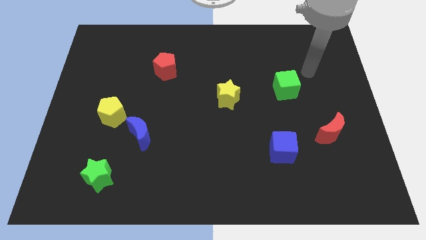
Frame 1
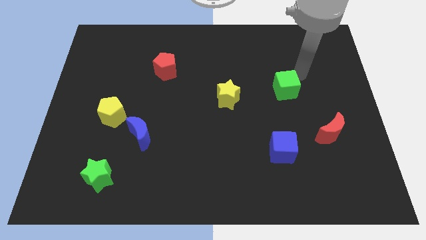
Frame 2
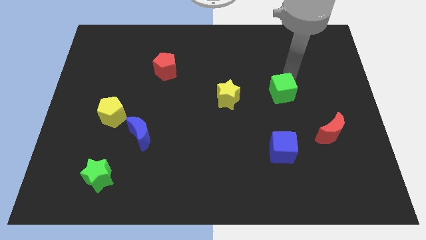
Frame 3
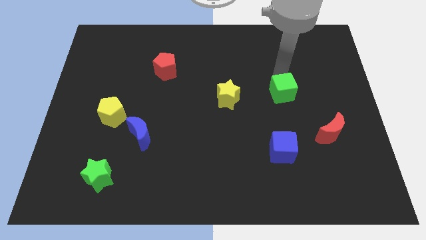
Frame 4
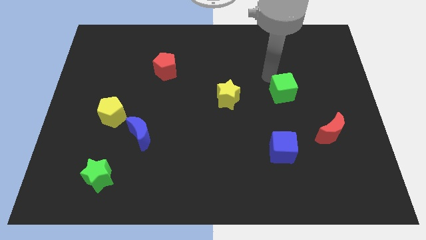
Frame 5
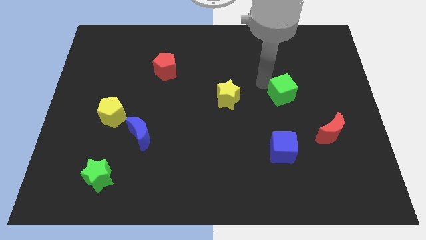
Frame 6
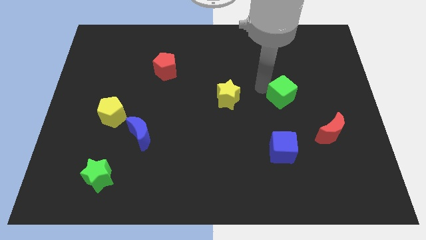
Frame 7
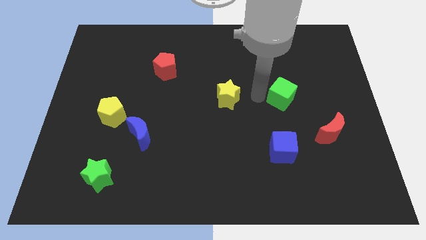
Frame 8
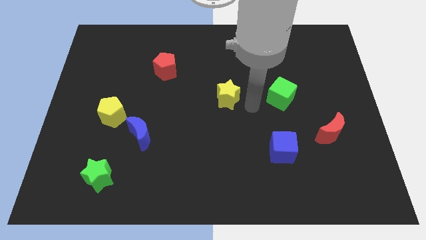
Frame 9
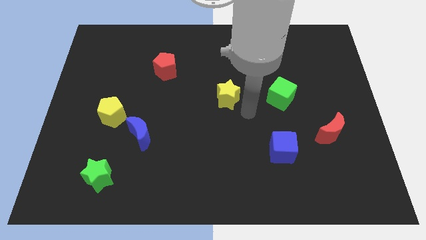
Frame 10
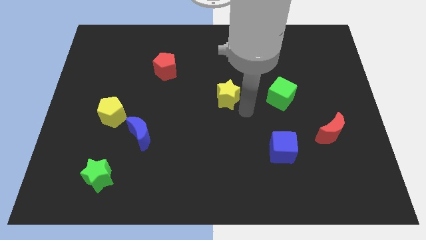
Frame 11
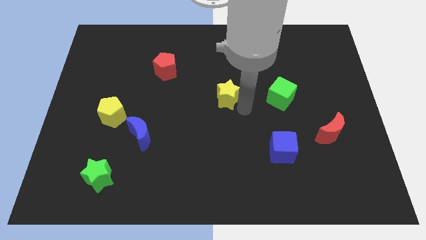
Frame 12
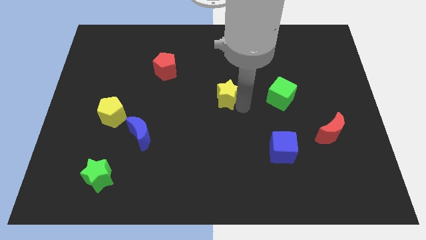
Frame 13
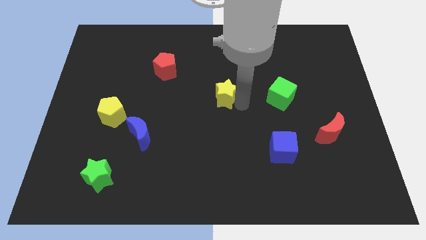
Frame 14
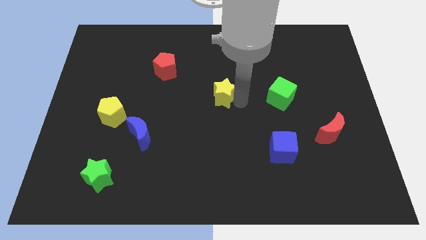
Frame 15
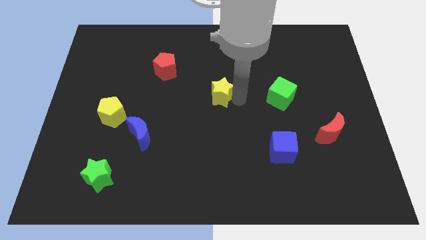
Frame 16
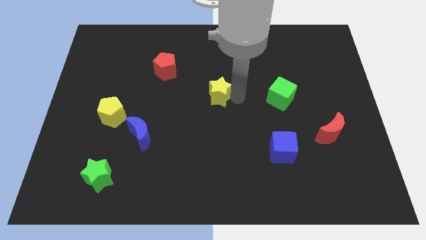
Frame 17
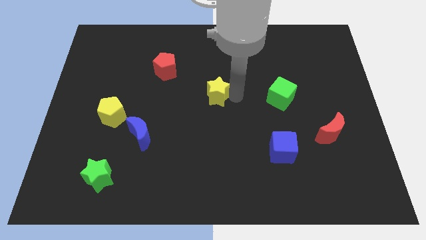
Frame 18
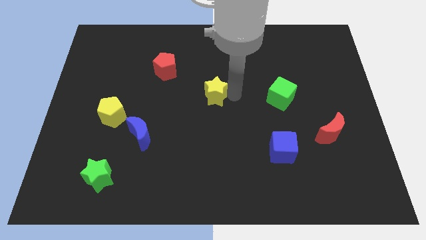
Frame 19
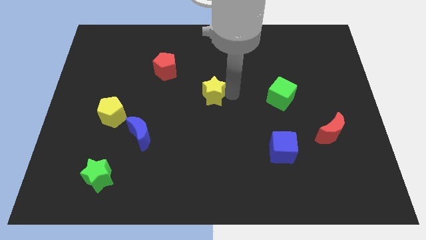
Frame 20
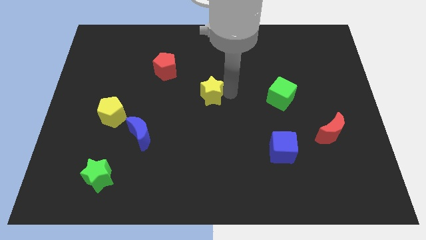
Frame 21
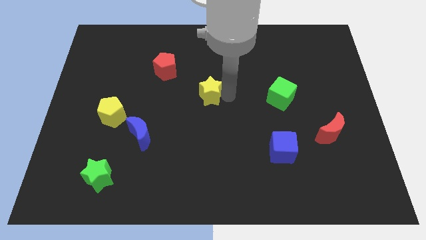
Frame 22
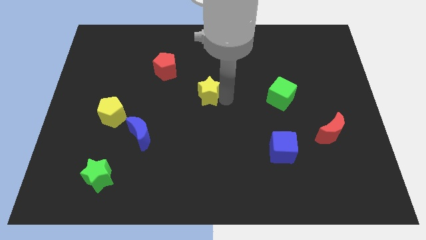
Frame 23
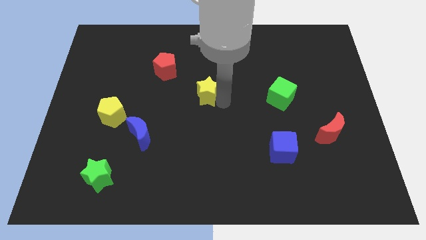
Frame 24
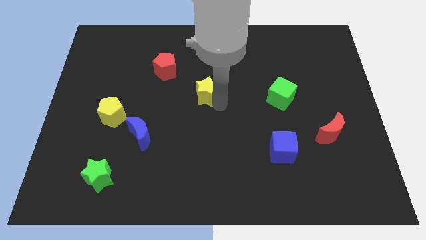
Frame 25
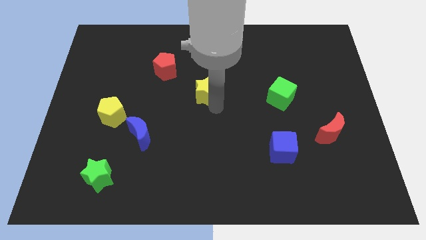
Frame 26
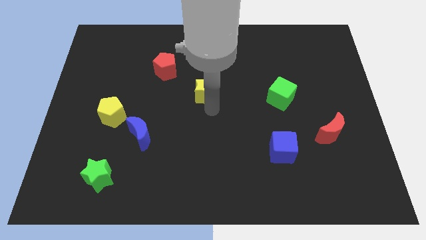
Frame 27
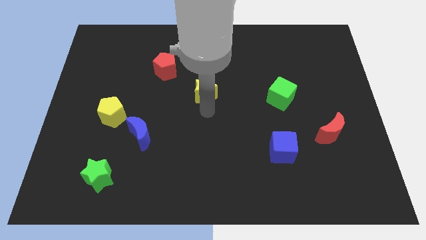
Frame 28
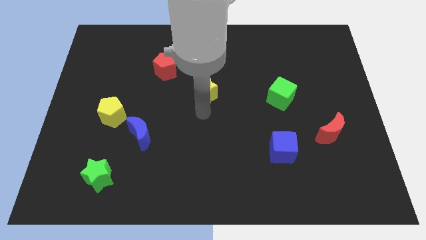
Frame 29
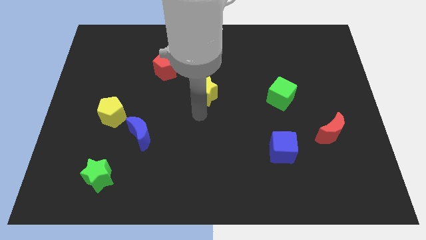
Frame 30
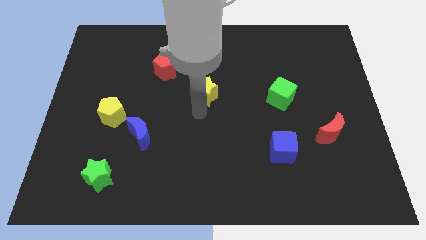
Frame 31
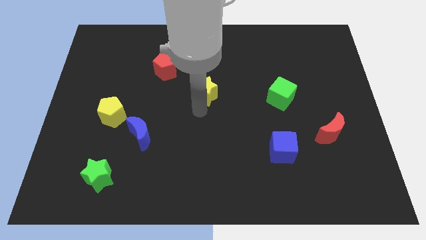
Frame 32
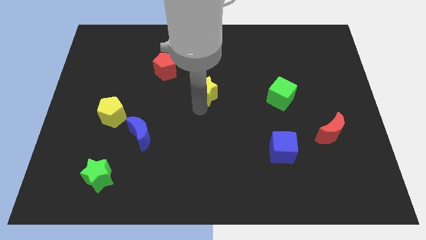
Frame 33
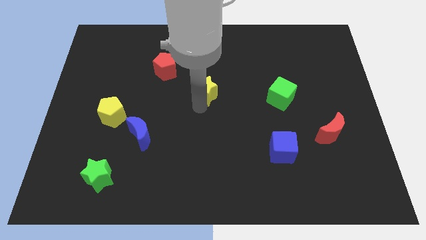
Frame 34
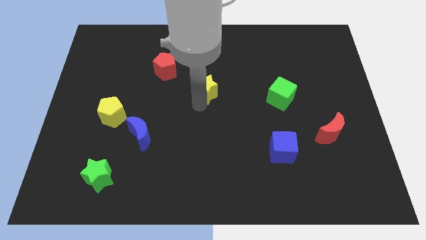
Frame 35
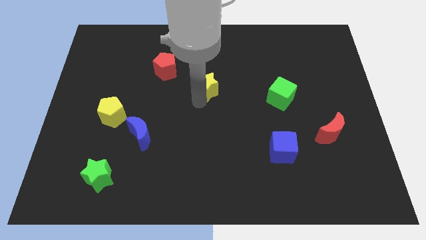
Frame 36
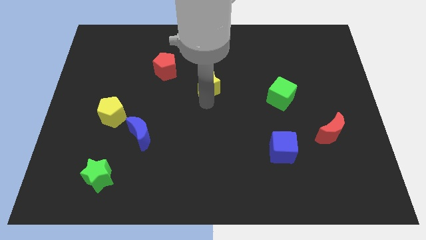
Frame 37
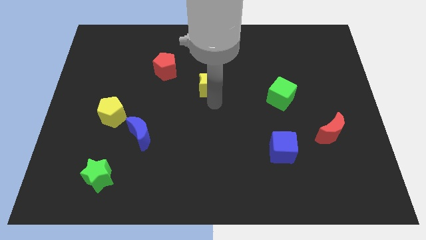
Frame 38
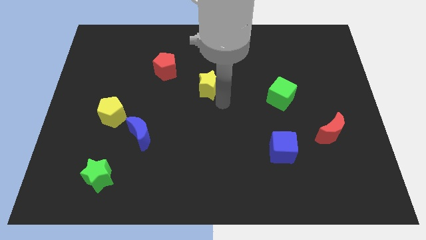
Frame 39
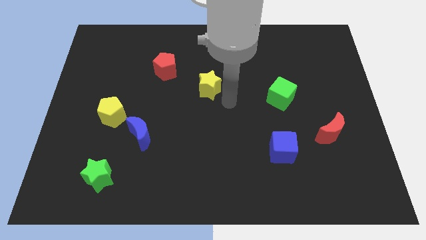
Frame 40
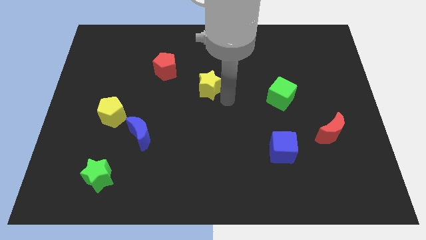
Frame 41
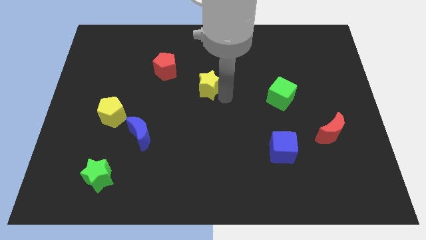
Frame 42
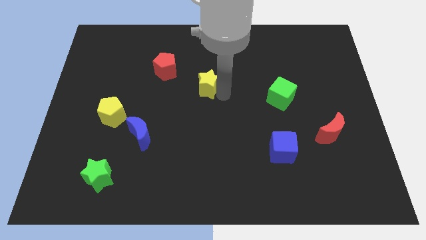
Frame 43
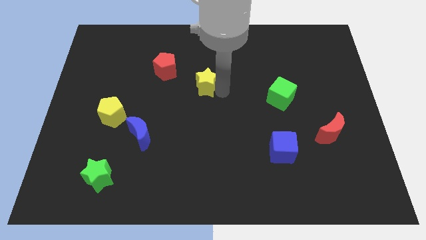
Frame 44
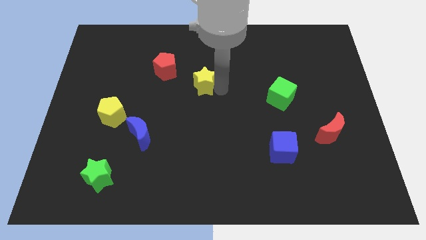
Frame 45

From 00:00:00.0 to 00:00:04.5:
move the yellow star upwards and then to the left slightly

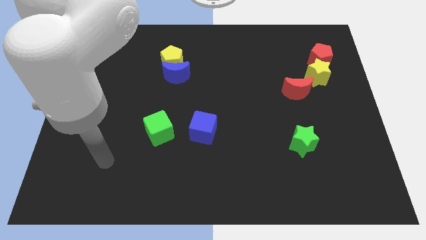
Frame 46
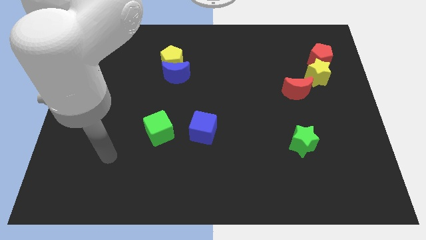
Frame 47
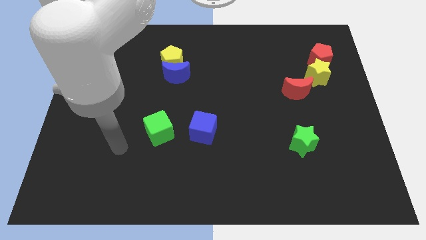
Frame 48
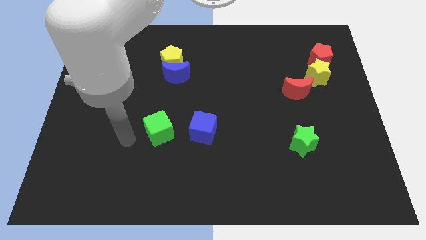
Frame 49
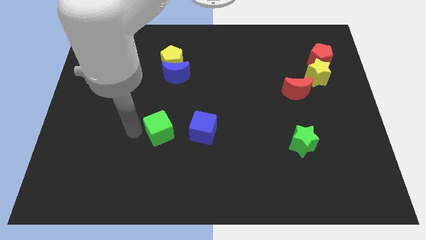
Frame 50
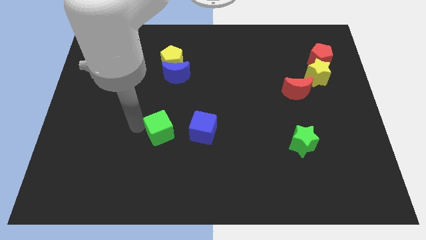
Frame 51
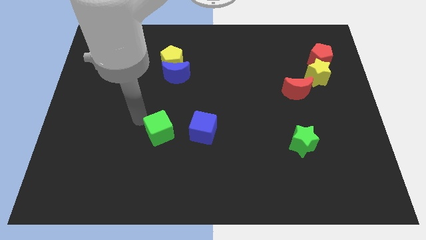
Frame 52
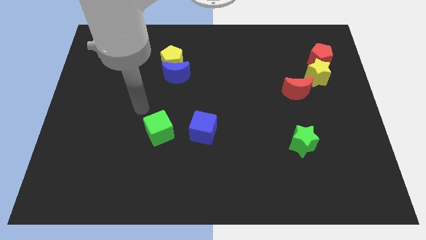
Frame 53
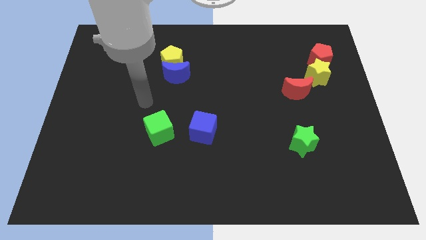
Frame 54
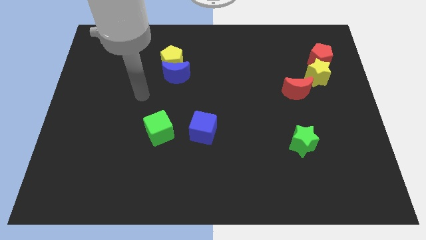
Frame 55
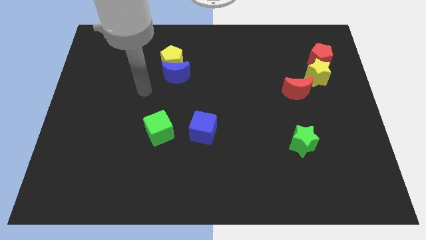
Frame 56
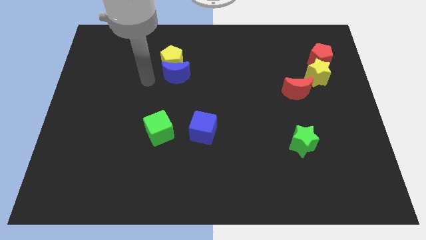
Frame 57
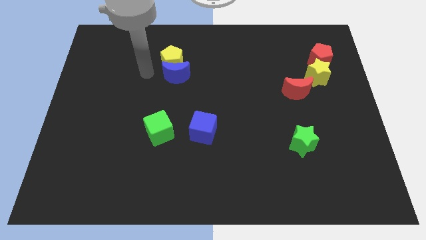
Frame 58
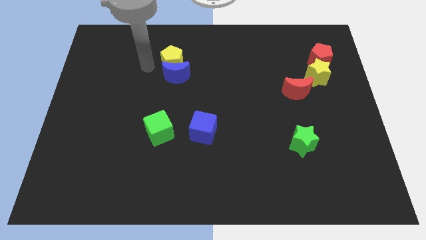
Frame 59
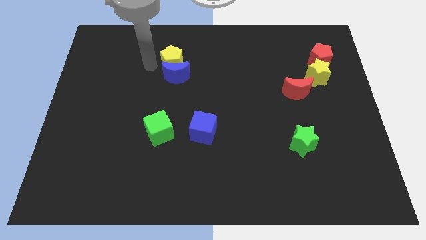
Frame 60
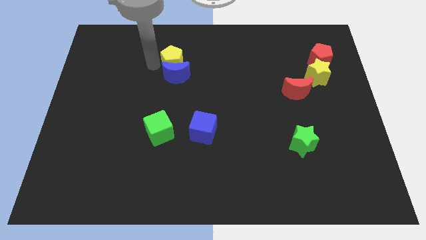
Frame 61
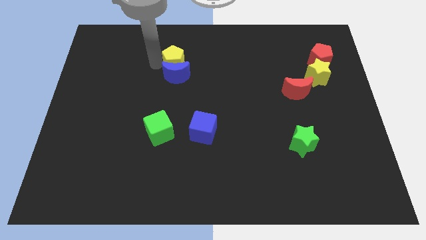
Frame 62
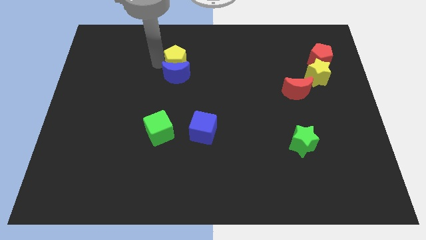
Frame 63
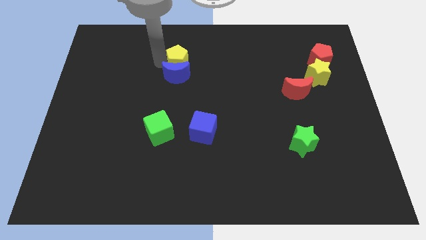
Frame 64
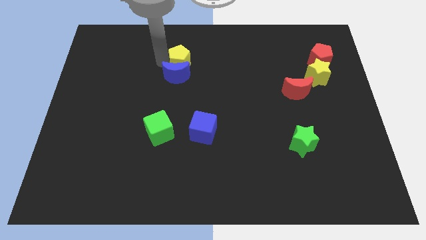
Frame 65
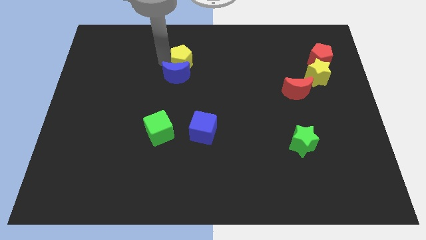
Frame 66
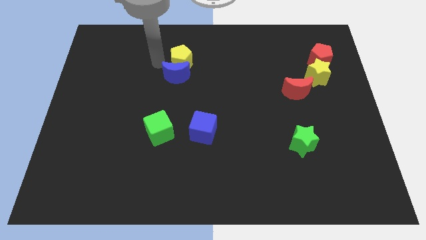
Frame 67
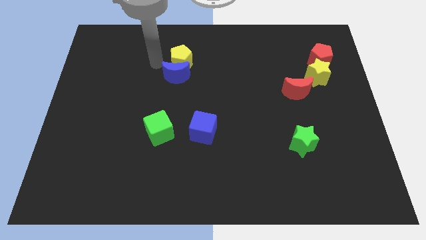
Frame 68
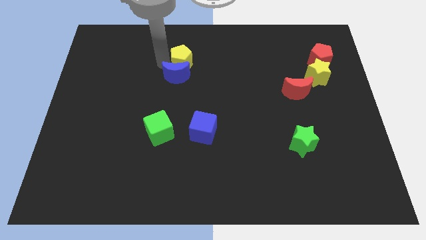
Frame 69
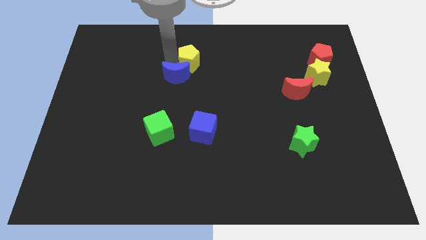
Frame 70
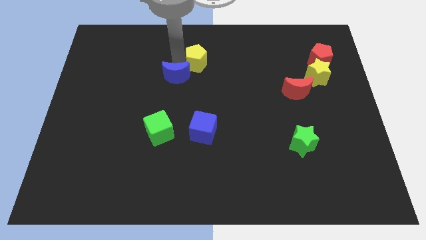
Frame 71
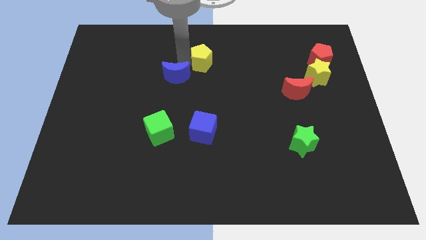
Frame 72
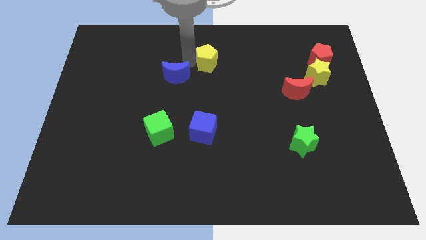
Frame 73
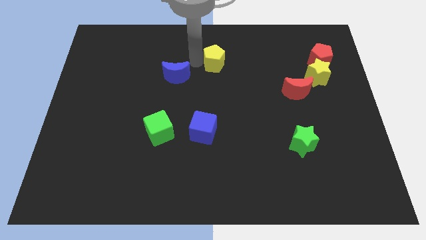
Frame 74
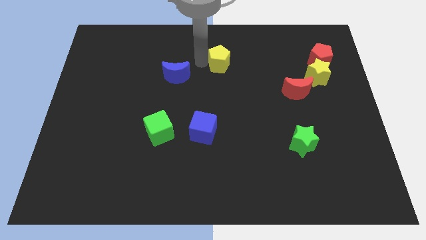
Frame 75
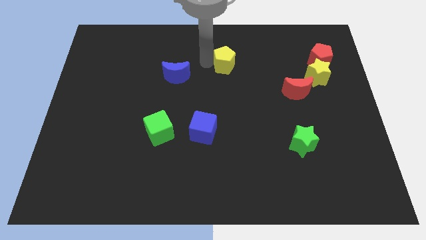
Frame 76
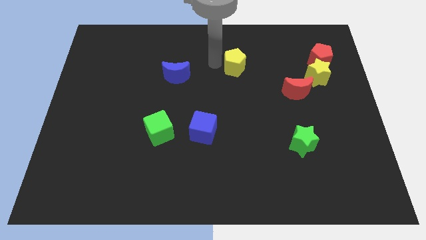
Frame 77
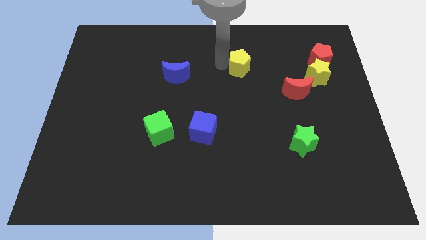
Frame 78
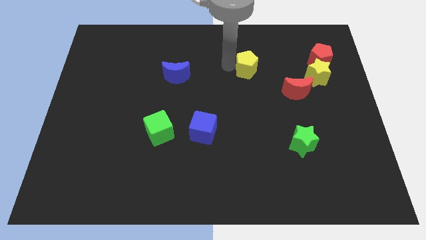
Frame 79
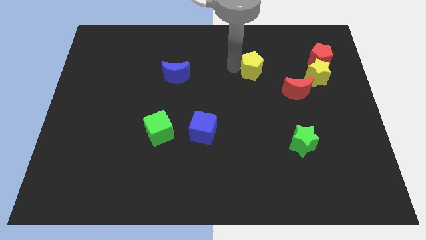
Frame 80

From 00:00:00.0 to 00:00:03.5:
push the yellow pentagon right
